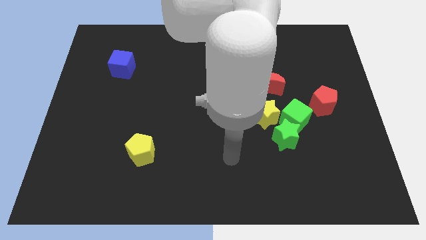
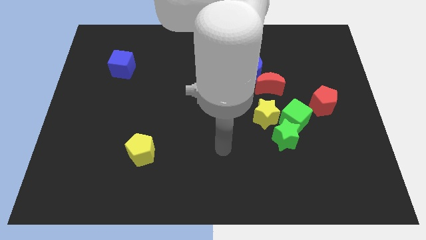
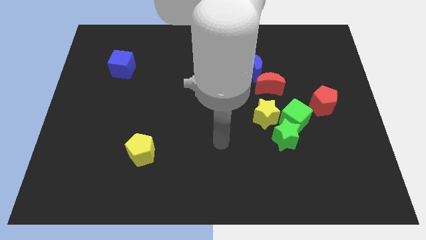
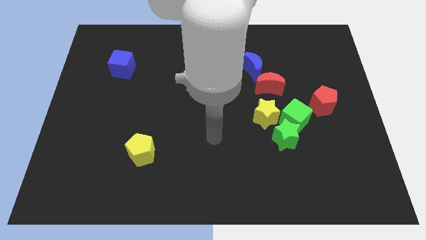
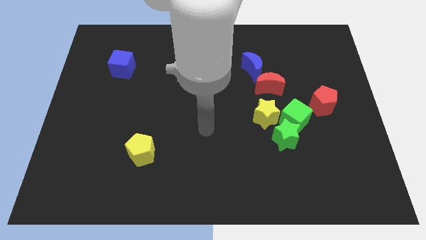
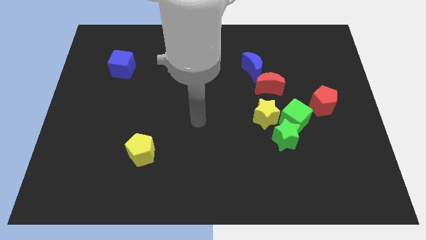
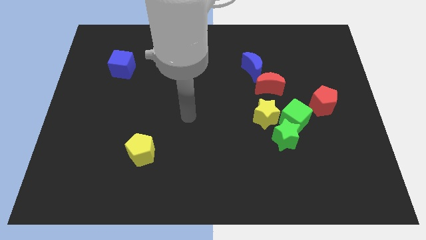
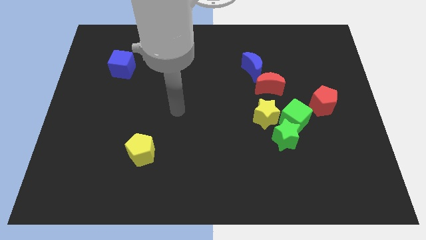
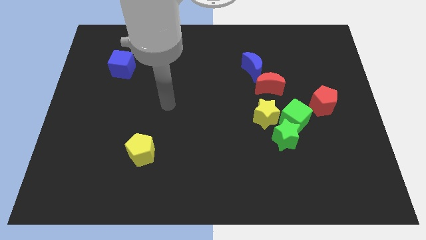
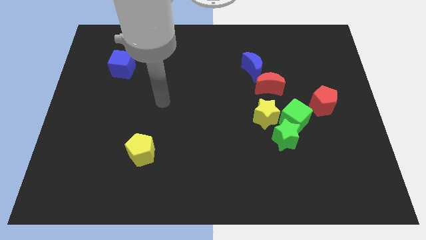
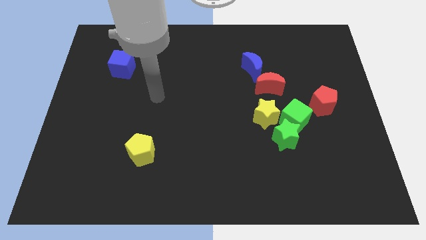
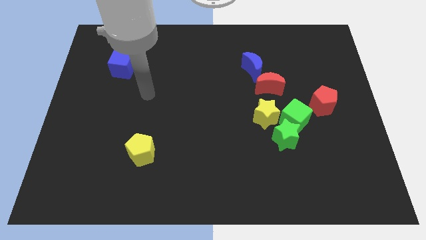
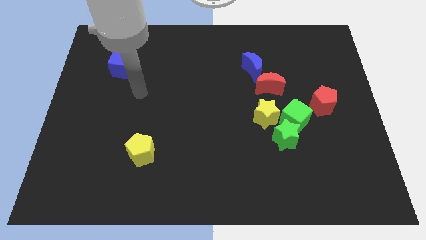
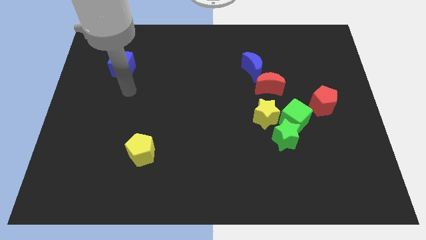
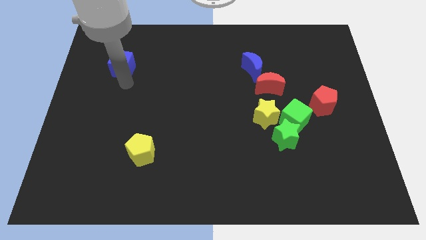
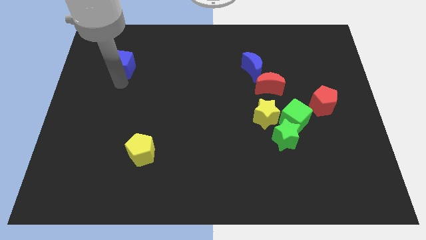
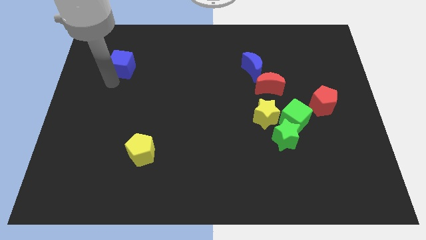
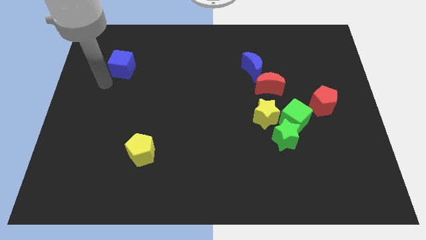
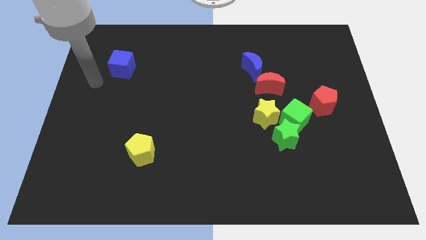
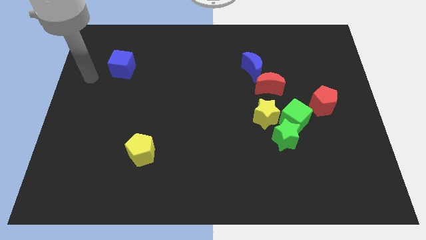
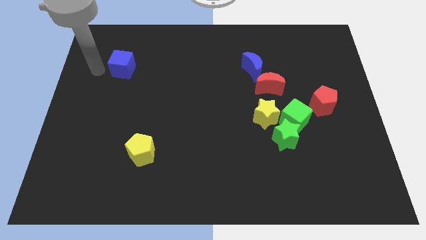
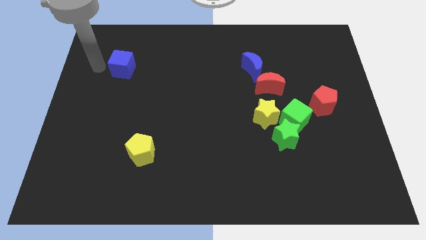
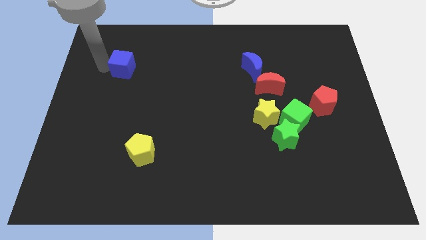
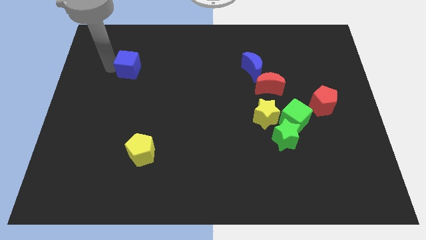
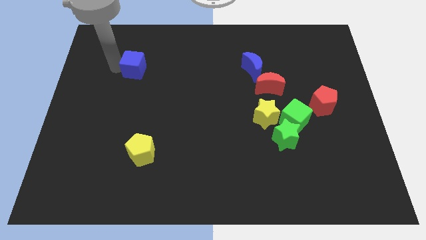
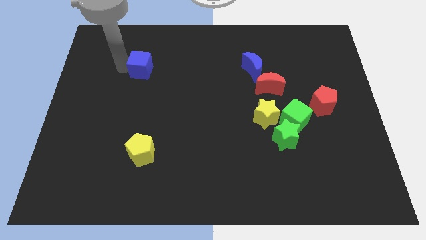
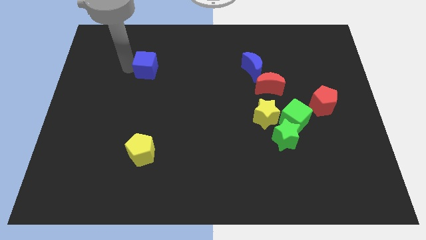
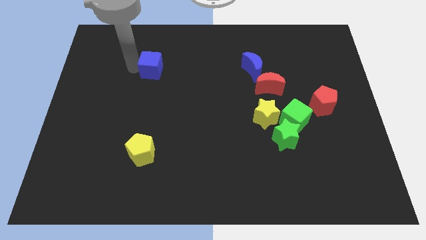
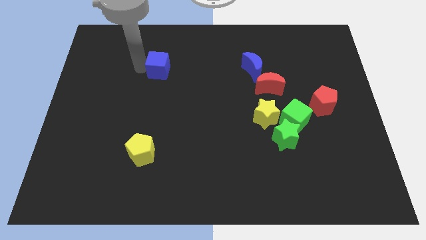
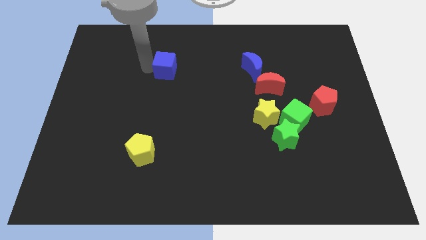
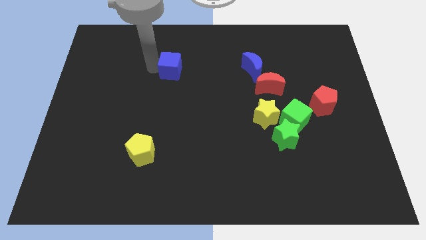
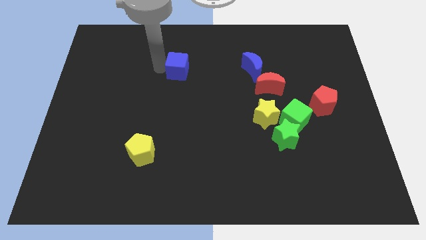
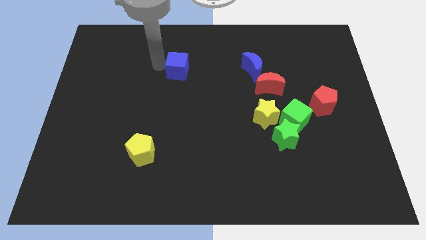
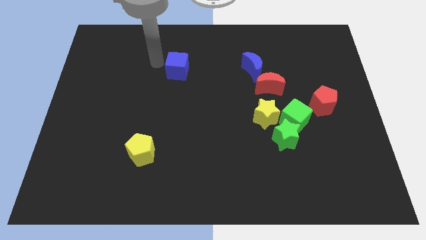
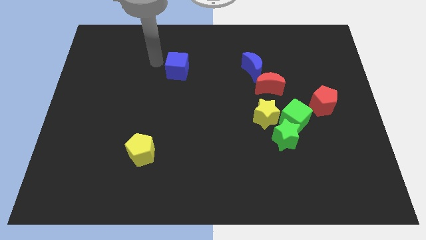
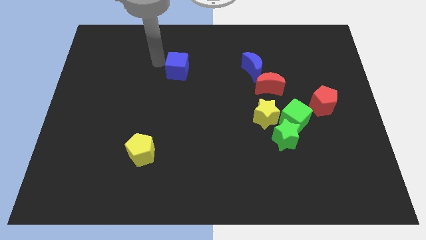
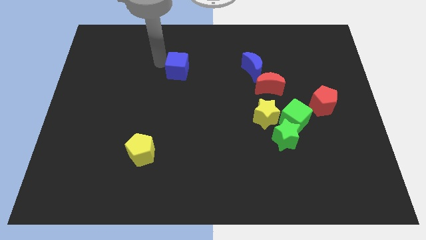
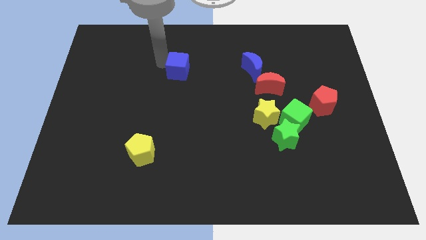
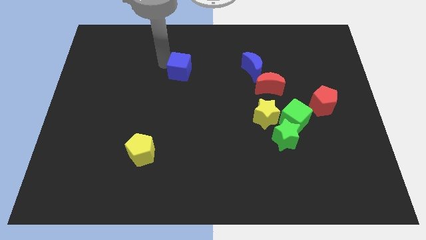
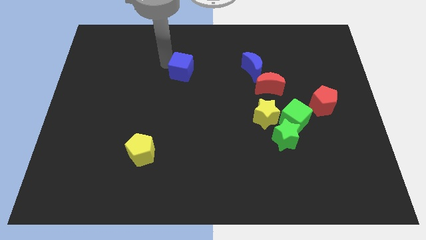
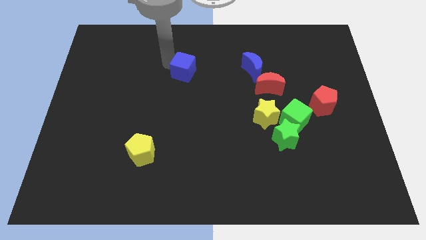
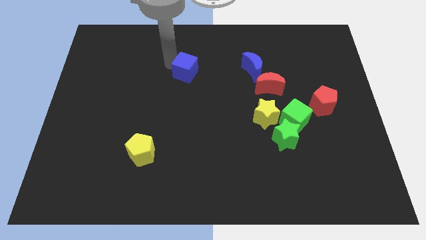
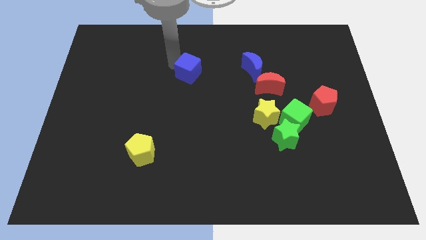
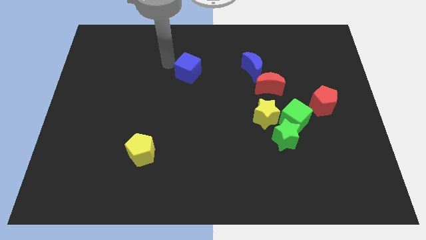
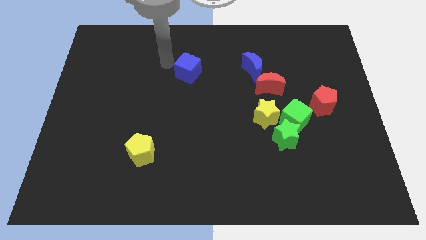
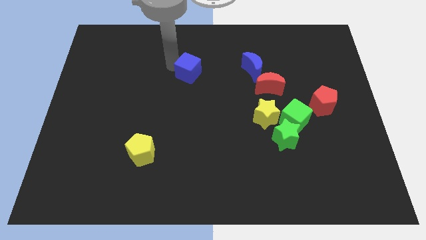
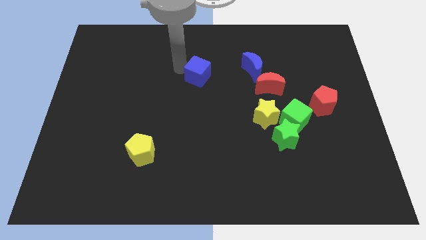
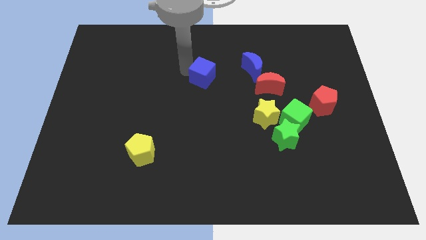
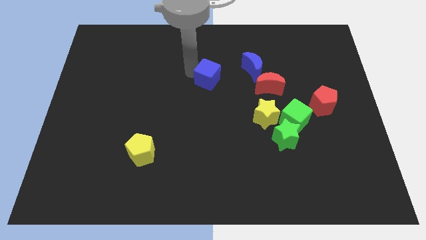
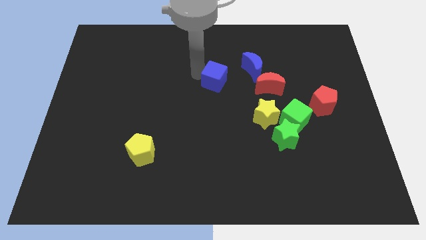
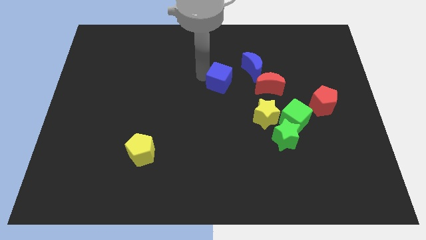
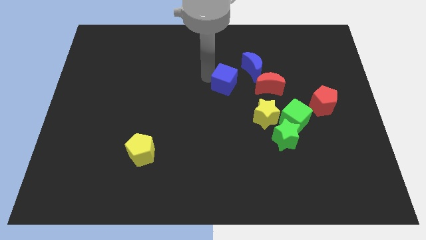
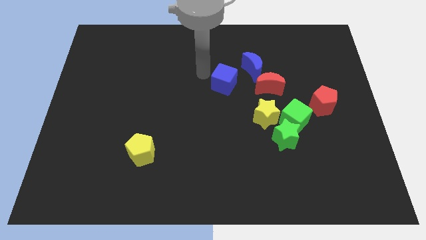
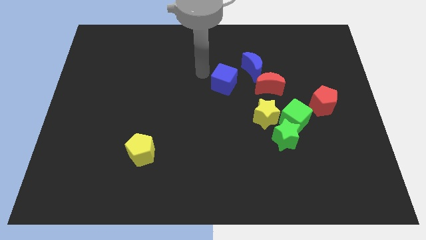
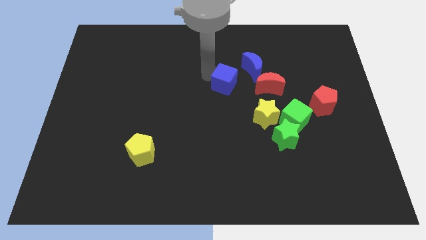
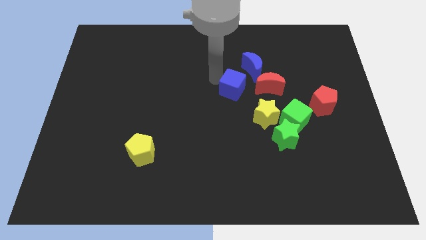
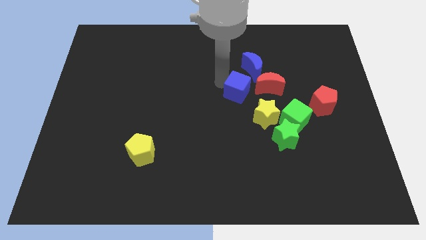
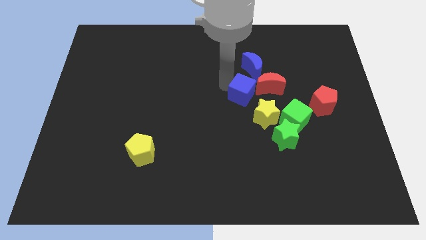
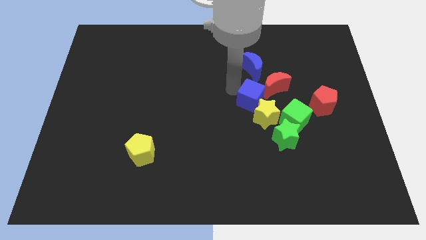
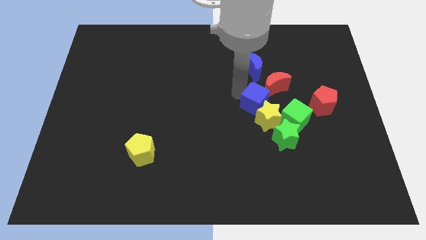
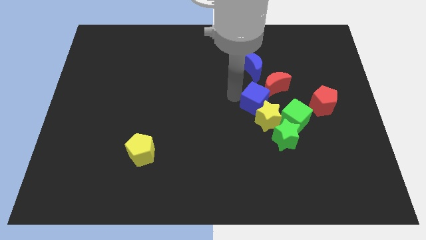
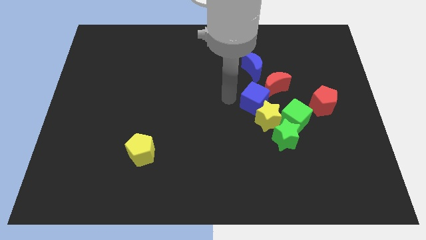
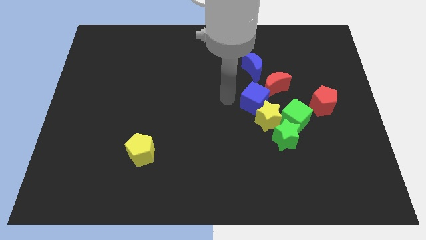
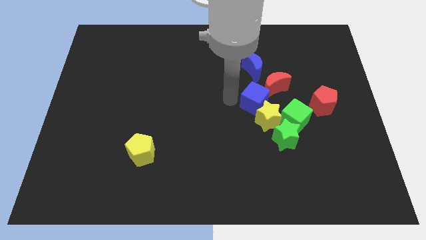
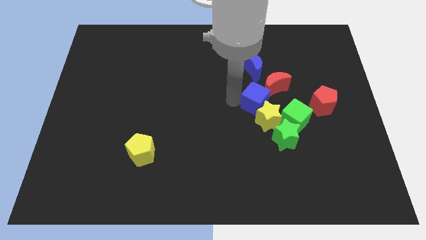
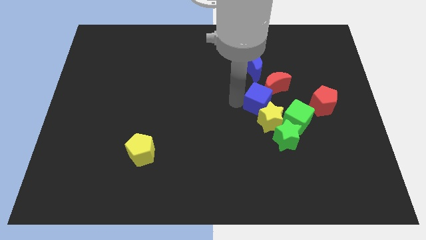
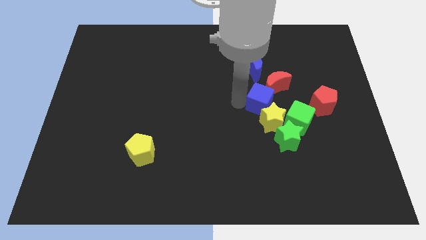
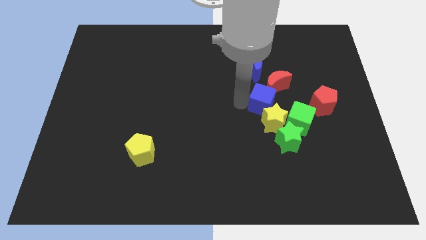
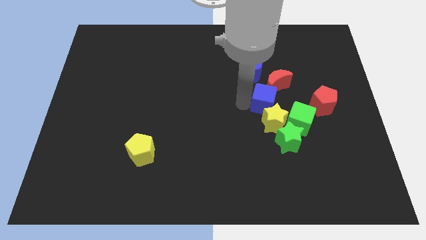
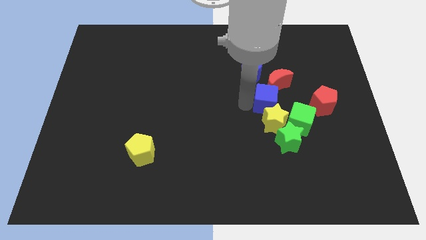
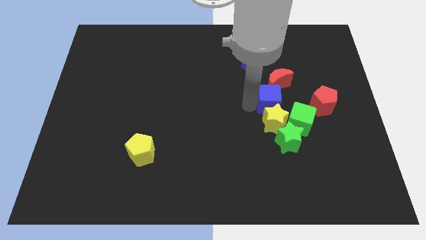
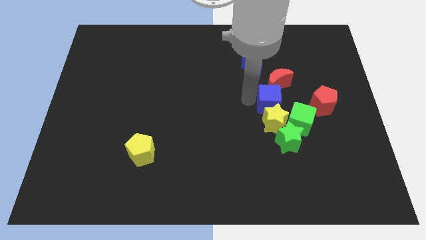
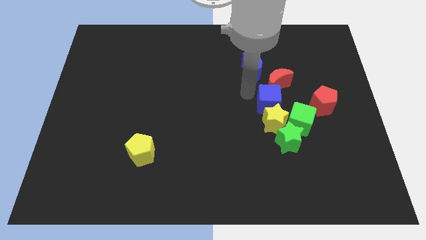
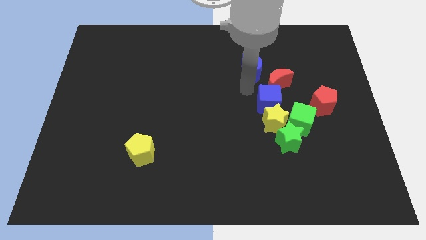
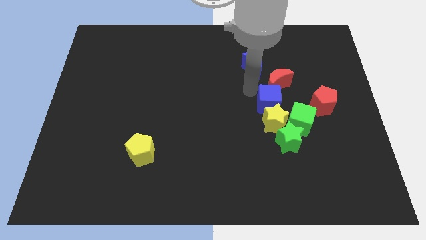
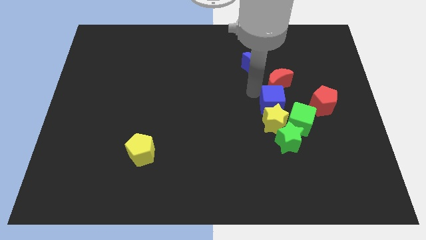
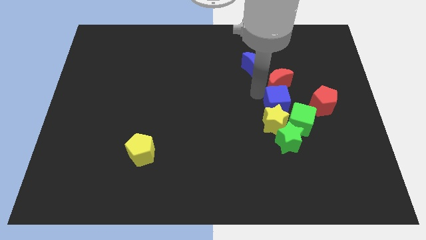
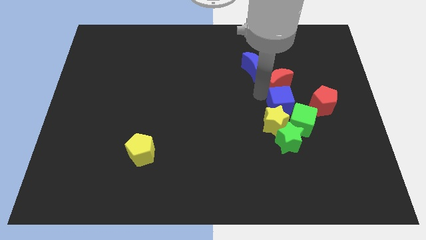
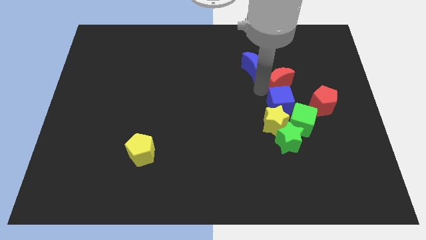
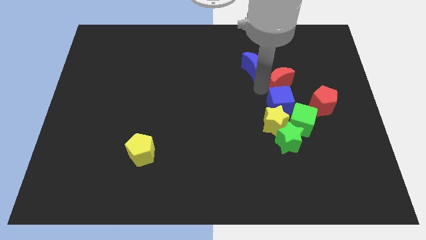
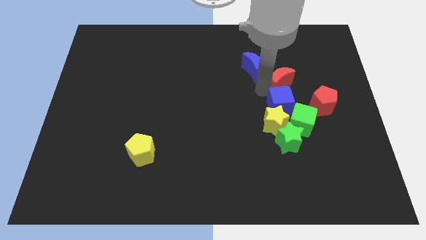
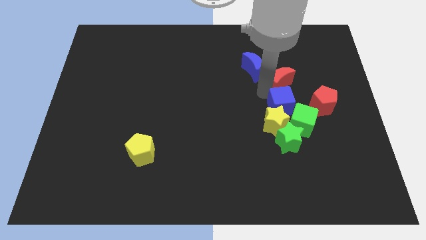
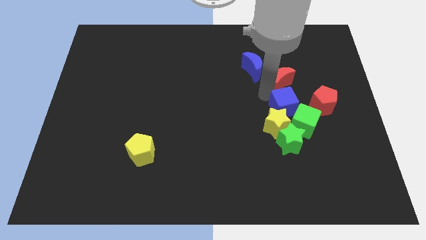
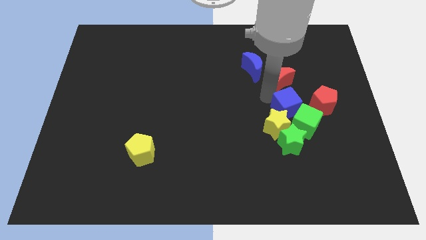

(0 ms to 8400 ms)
slide the blue cube close to the green cube
